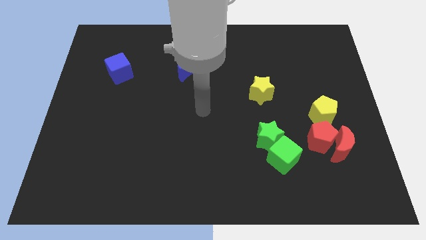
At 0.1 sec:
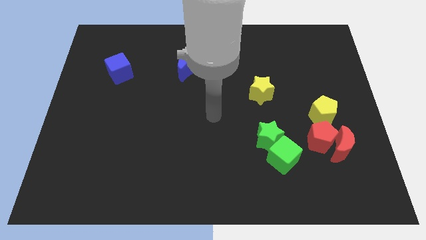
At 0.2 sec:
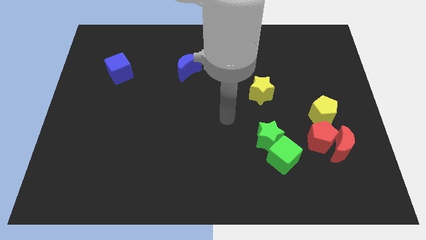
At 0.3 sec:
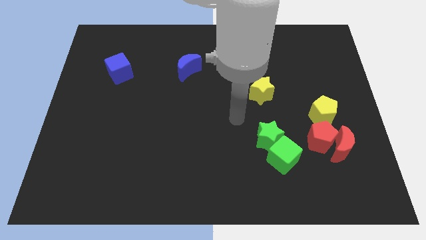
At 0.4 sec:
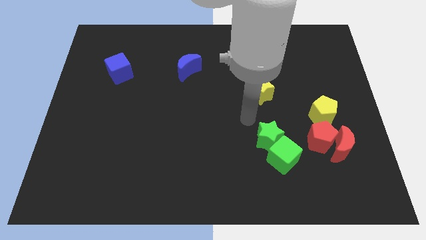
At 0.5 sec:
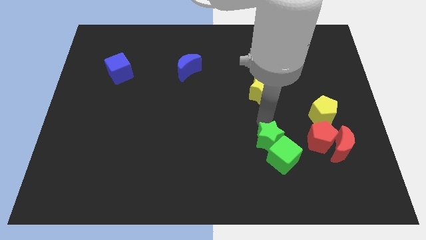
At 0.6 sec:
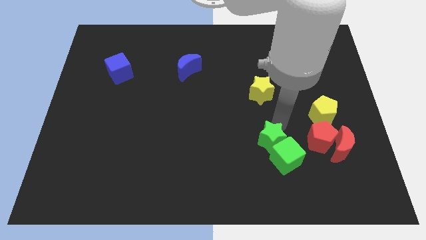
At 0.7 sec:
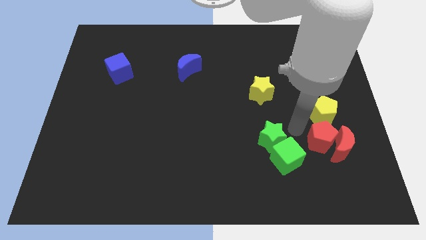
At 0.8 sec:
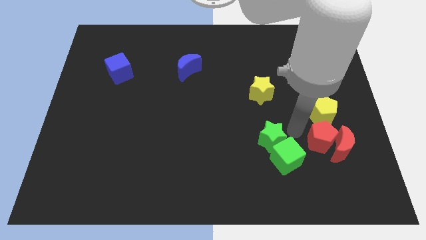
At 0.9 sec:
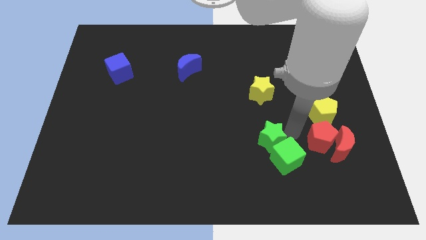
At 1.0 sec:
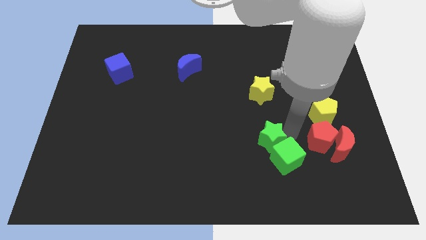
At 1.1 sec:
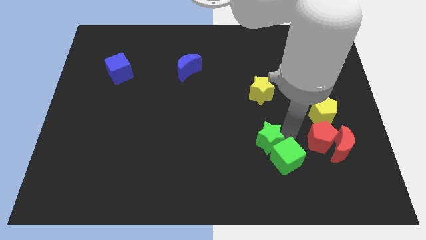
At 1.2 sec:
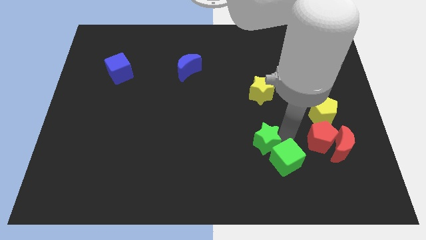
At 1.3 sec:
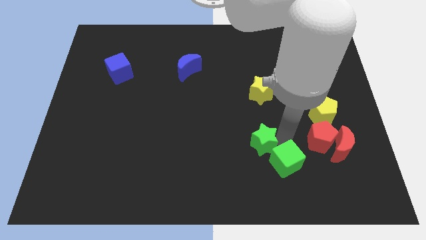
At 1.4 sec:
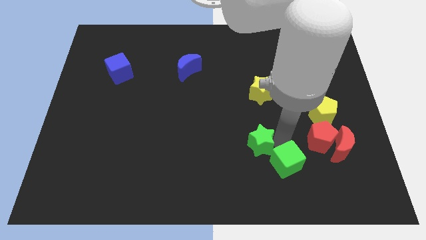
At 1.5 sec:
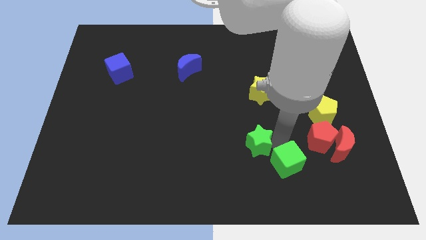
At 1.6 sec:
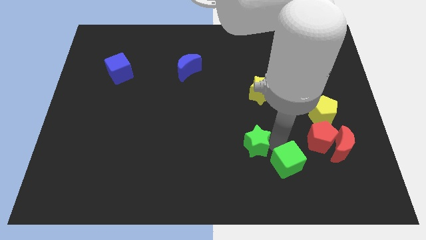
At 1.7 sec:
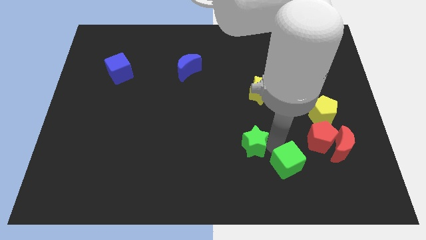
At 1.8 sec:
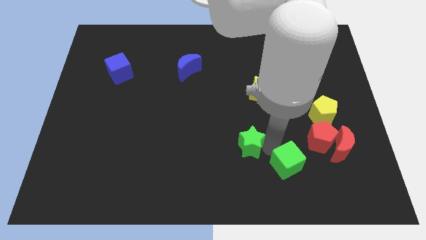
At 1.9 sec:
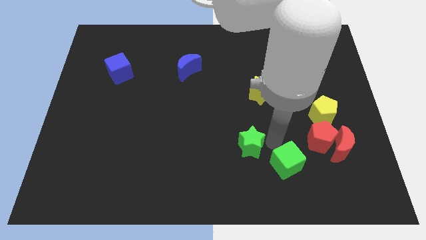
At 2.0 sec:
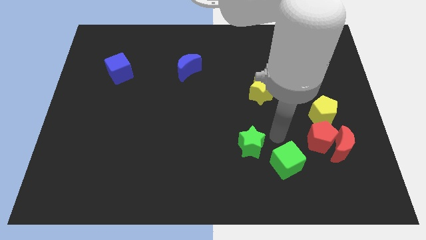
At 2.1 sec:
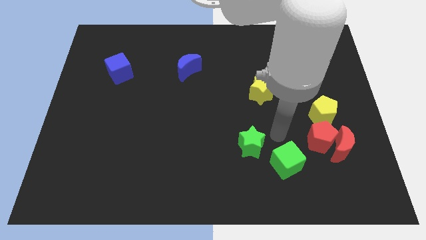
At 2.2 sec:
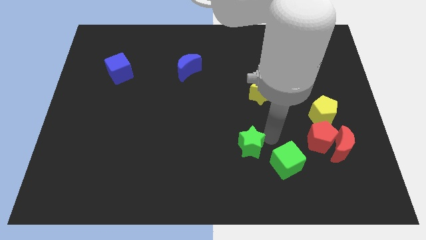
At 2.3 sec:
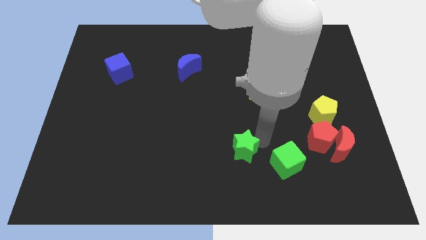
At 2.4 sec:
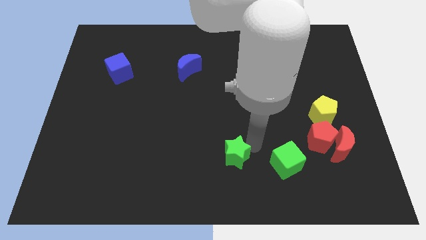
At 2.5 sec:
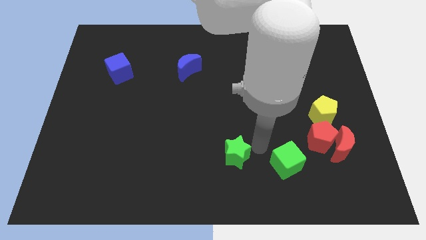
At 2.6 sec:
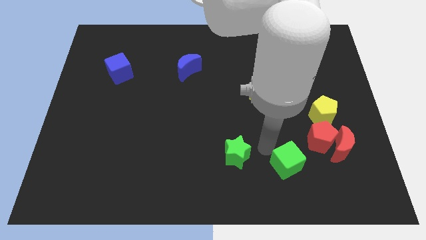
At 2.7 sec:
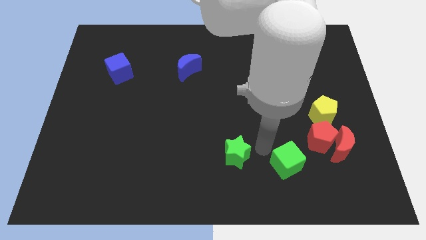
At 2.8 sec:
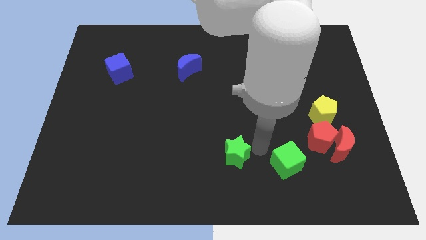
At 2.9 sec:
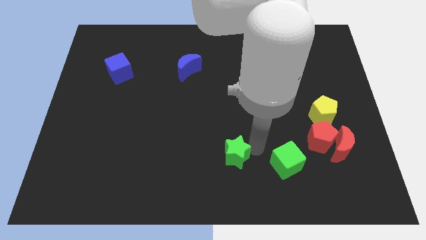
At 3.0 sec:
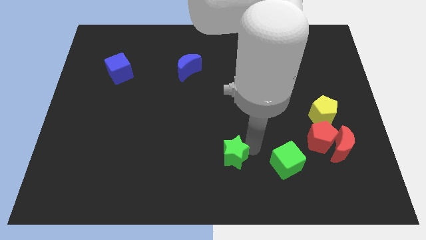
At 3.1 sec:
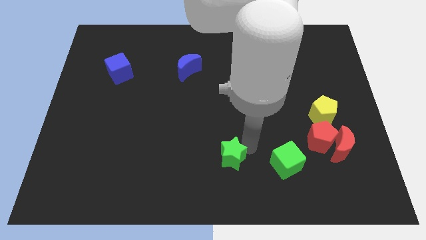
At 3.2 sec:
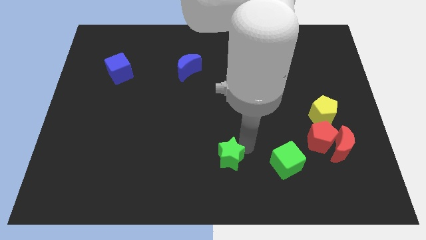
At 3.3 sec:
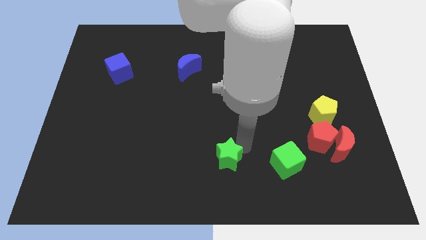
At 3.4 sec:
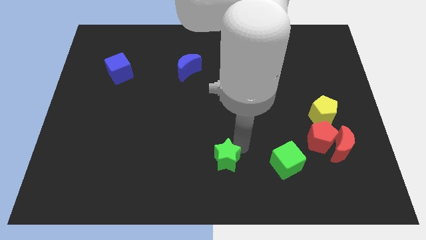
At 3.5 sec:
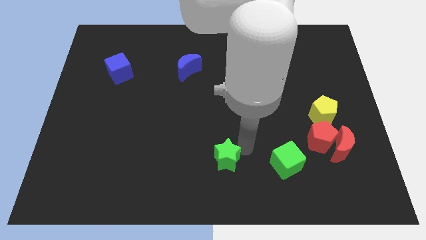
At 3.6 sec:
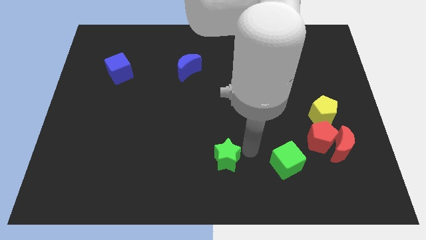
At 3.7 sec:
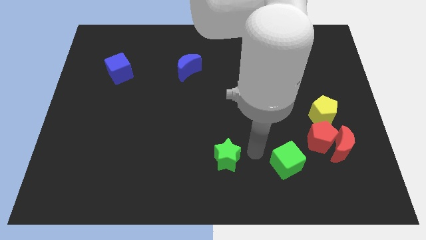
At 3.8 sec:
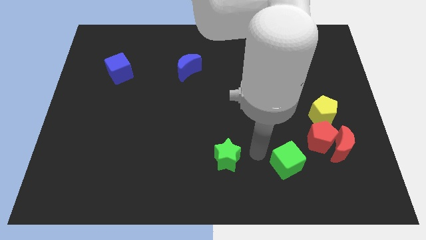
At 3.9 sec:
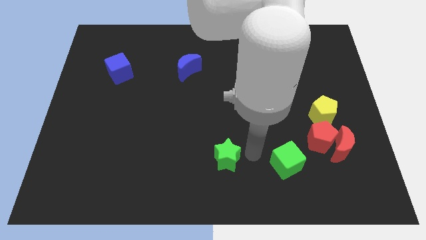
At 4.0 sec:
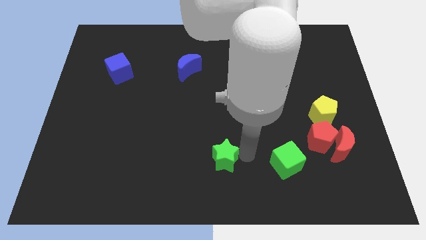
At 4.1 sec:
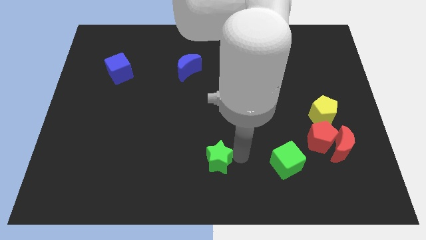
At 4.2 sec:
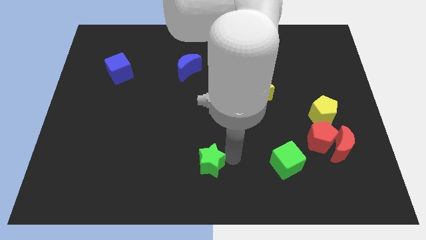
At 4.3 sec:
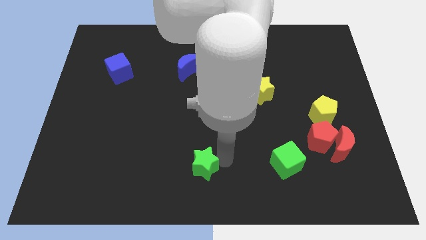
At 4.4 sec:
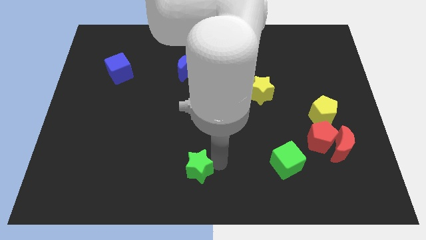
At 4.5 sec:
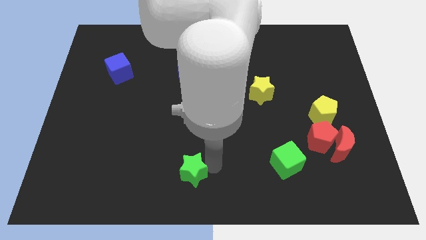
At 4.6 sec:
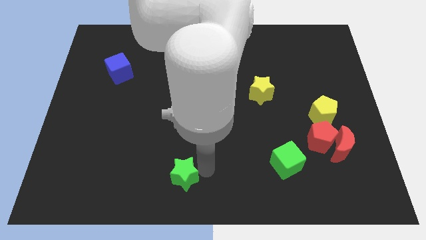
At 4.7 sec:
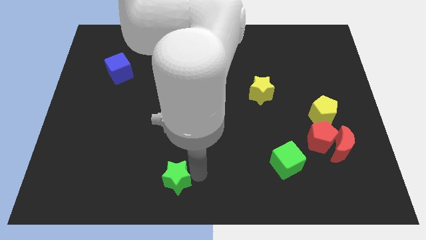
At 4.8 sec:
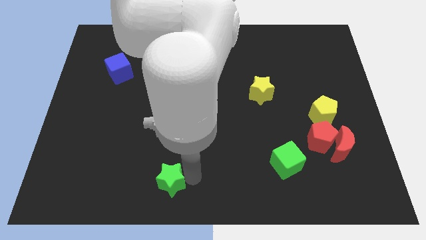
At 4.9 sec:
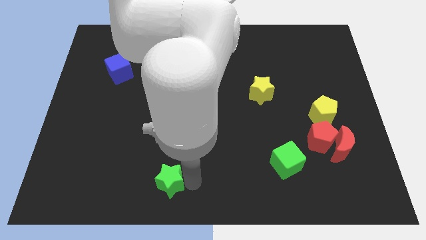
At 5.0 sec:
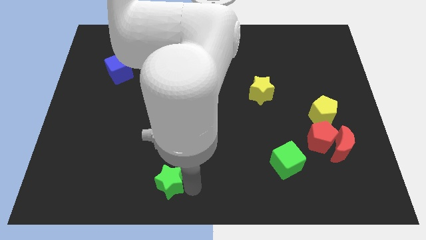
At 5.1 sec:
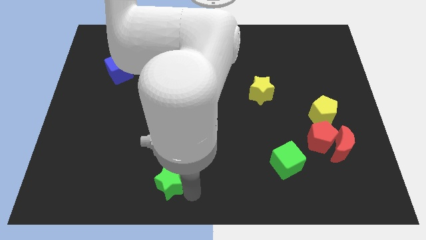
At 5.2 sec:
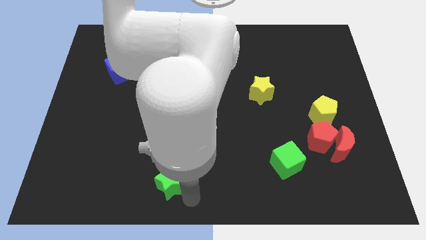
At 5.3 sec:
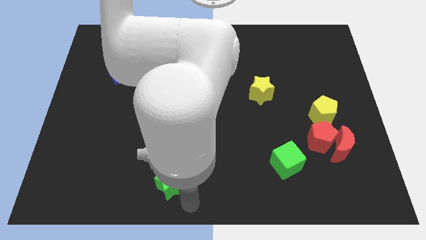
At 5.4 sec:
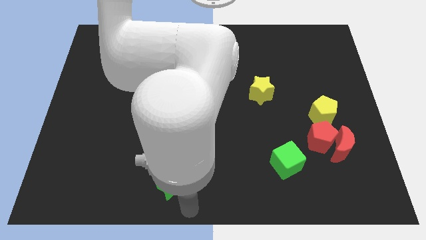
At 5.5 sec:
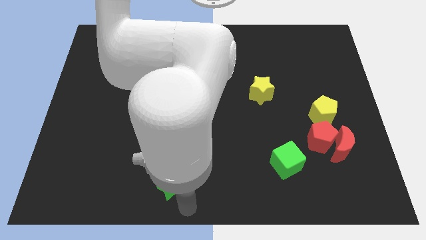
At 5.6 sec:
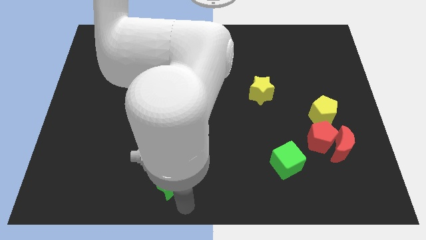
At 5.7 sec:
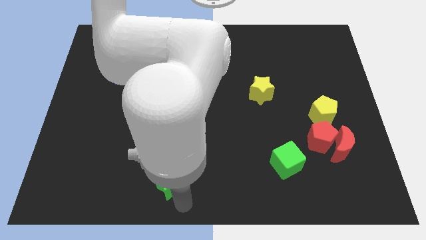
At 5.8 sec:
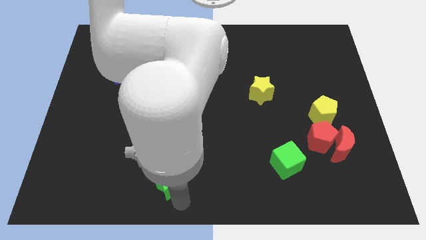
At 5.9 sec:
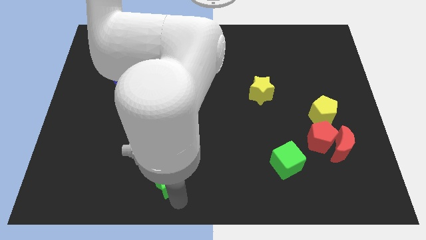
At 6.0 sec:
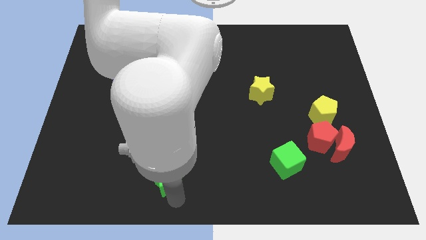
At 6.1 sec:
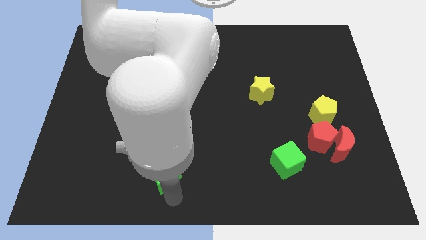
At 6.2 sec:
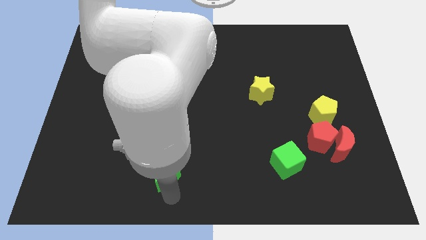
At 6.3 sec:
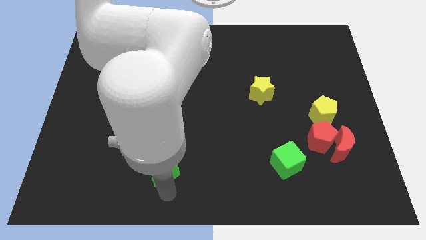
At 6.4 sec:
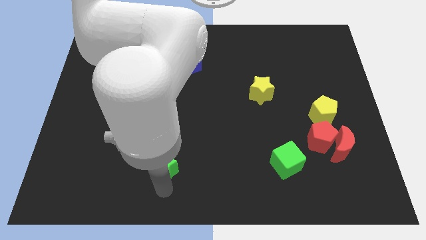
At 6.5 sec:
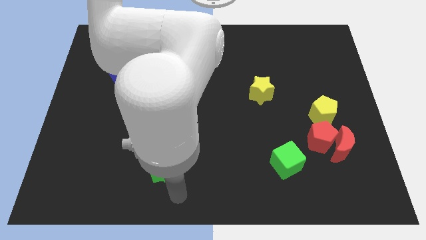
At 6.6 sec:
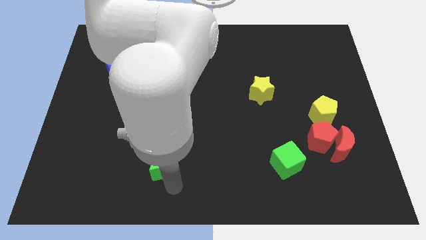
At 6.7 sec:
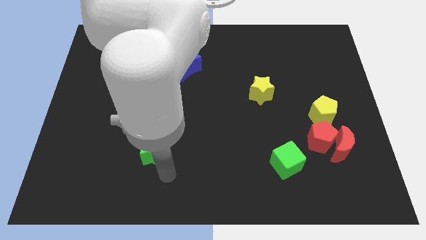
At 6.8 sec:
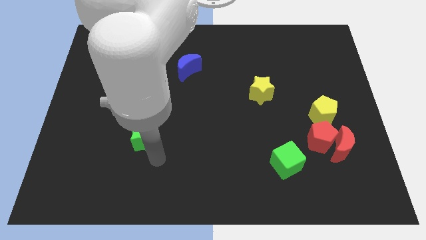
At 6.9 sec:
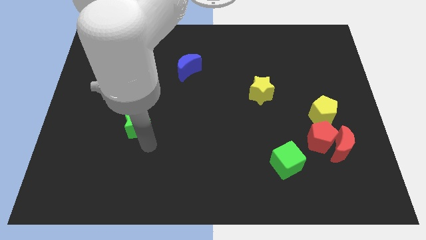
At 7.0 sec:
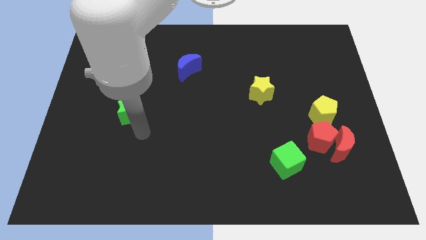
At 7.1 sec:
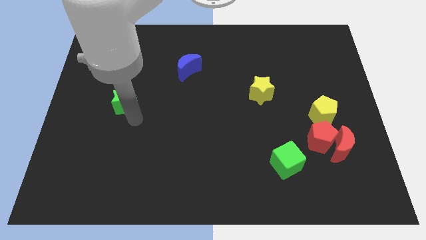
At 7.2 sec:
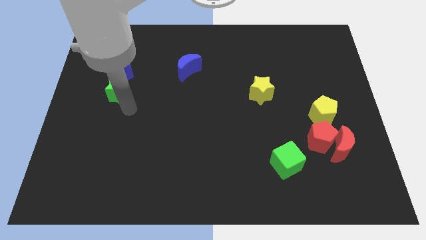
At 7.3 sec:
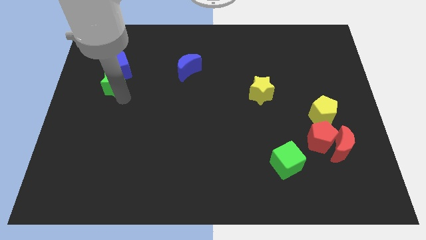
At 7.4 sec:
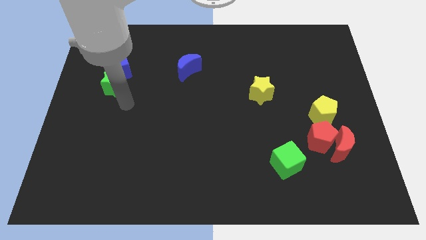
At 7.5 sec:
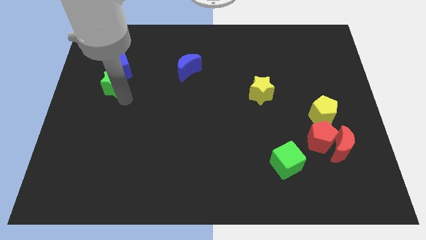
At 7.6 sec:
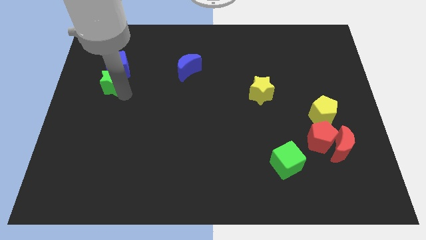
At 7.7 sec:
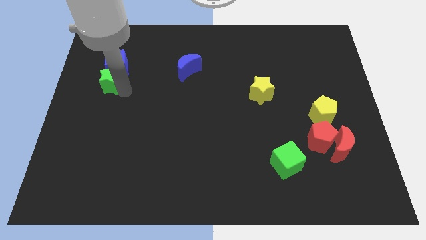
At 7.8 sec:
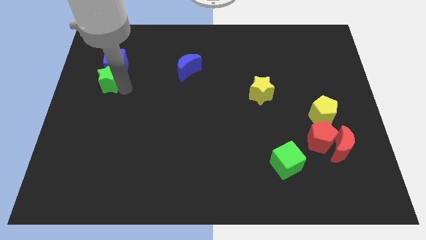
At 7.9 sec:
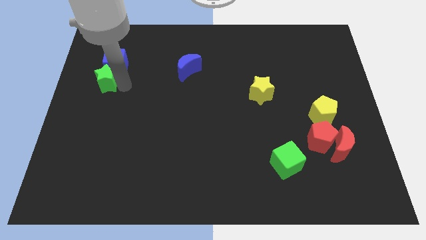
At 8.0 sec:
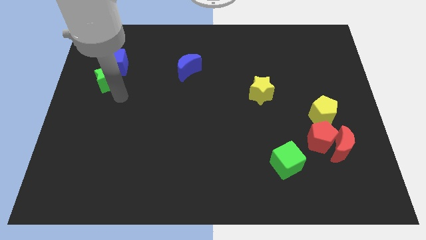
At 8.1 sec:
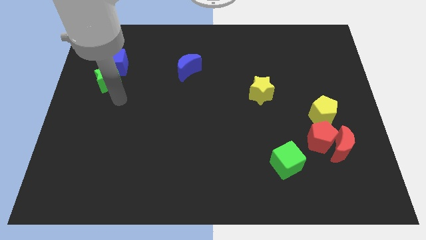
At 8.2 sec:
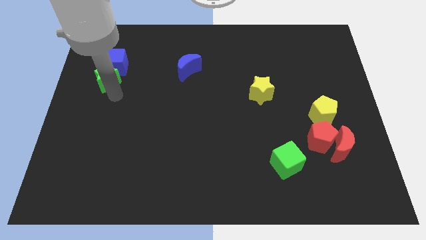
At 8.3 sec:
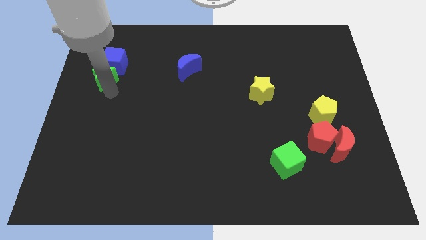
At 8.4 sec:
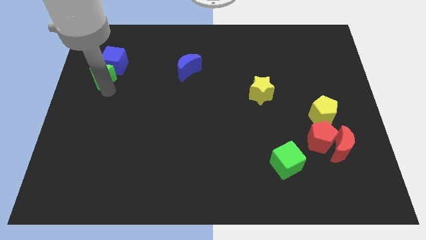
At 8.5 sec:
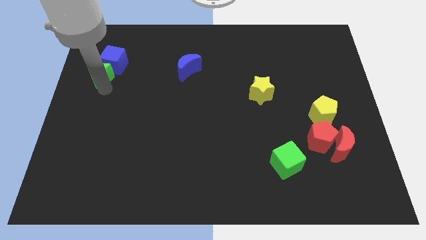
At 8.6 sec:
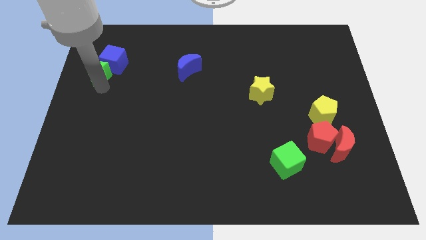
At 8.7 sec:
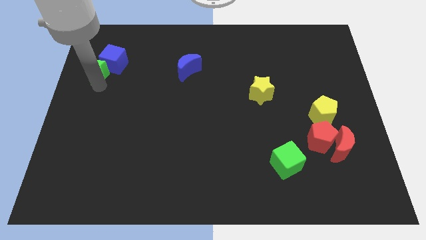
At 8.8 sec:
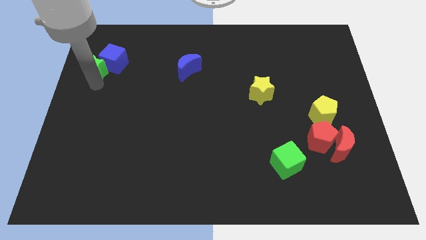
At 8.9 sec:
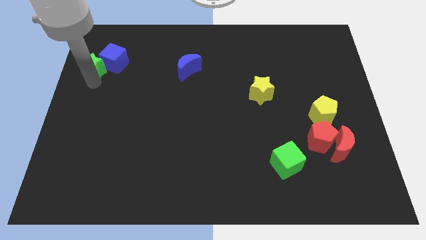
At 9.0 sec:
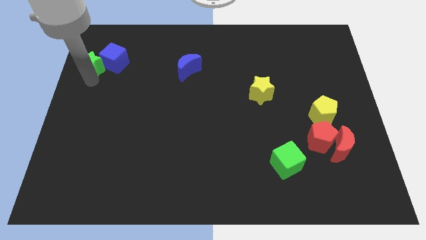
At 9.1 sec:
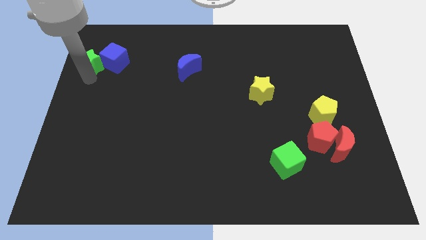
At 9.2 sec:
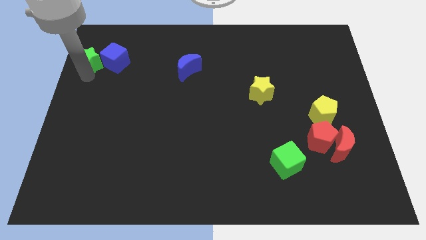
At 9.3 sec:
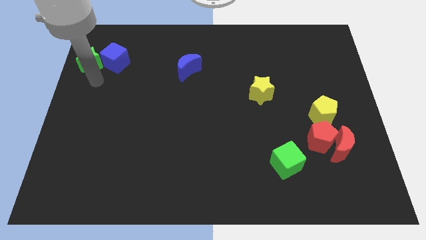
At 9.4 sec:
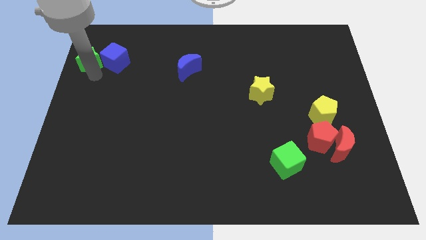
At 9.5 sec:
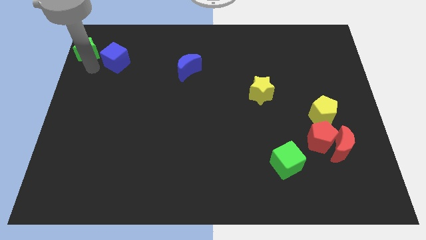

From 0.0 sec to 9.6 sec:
move the green star to the top left
